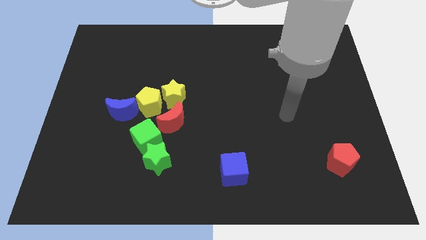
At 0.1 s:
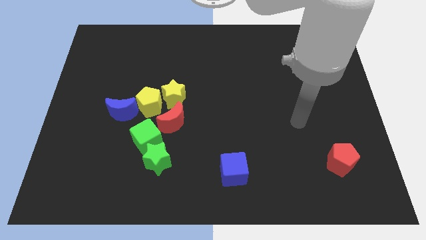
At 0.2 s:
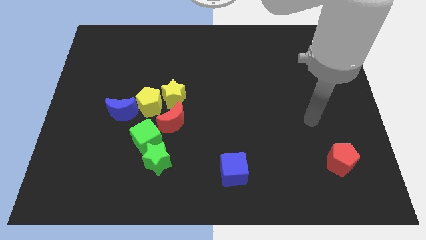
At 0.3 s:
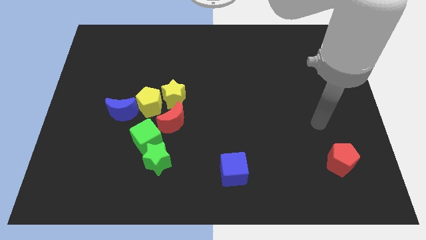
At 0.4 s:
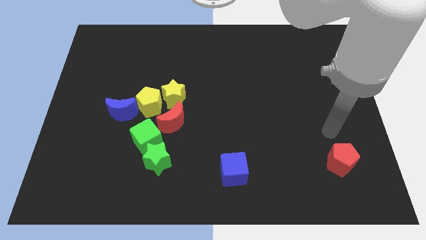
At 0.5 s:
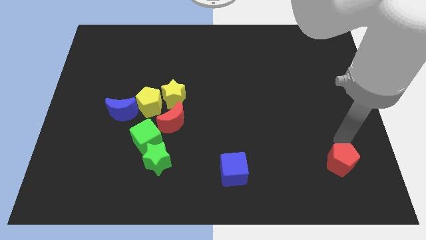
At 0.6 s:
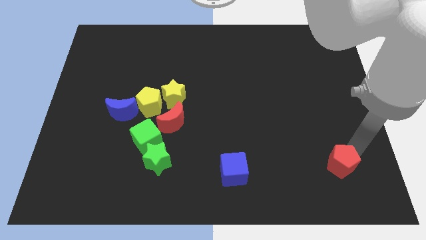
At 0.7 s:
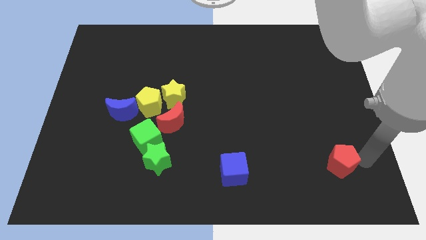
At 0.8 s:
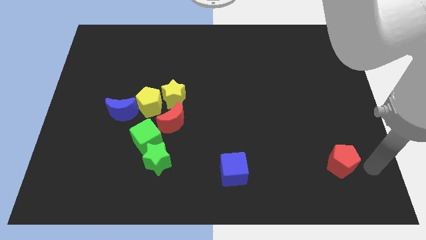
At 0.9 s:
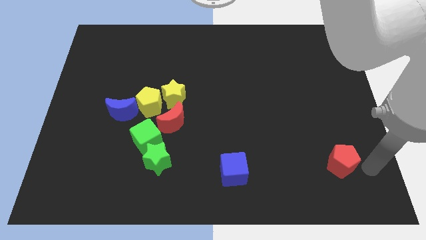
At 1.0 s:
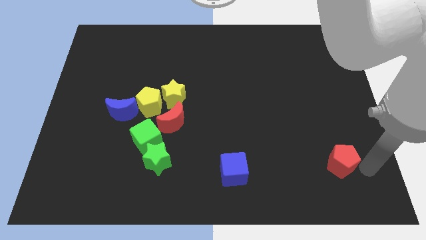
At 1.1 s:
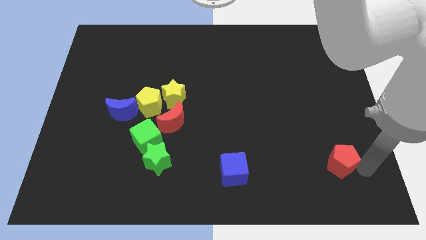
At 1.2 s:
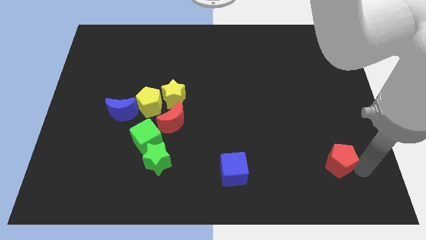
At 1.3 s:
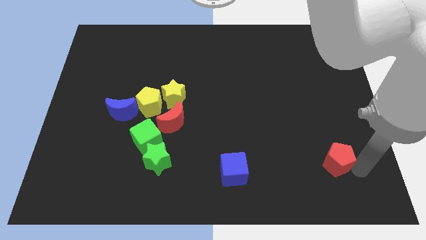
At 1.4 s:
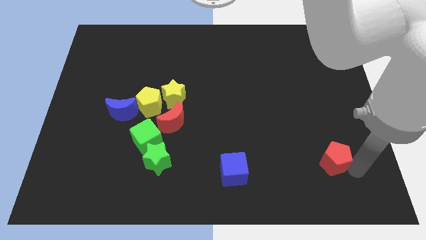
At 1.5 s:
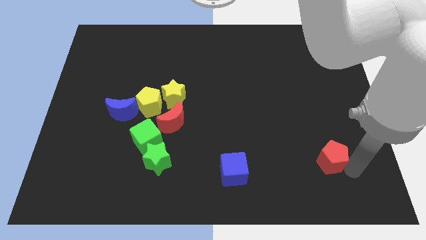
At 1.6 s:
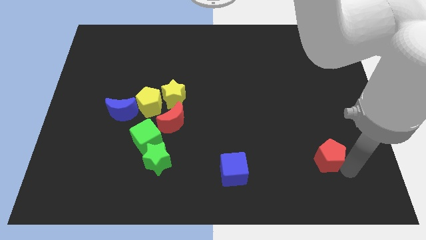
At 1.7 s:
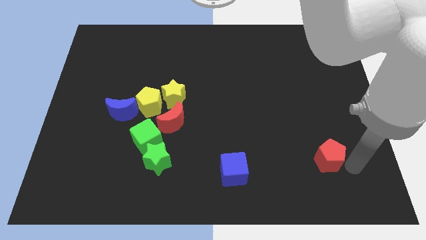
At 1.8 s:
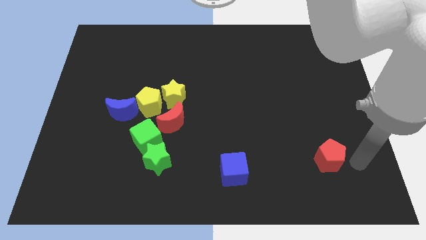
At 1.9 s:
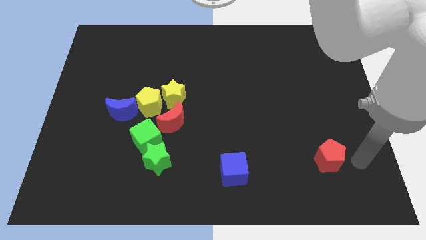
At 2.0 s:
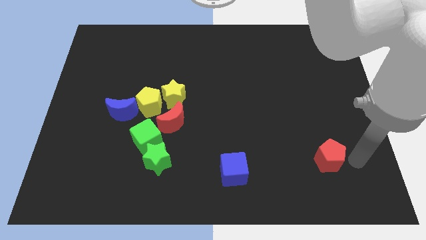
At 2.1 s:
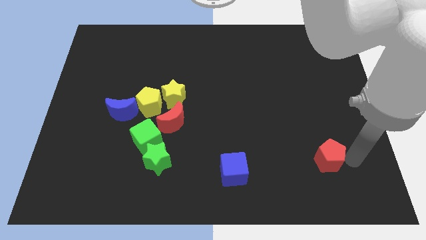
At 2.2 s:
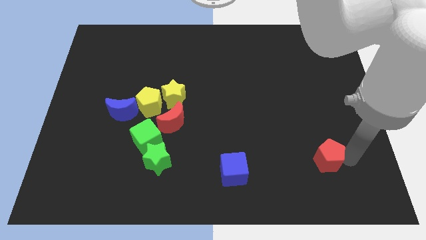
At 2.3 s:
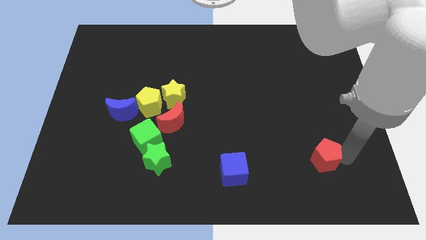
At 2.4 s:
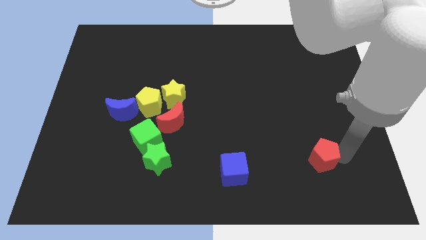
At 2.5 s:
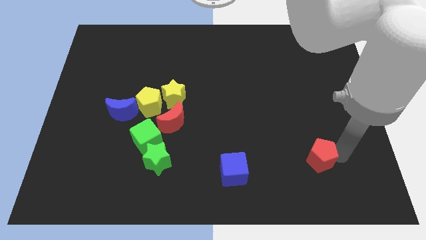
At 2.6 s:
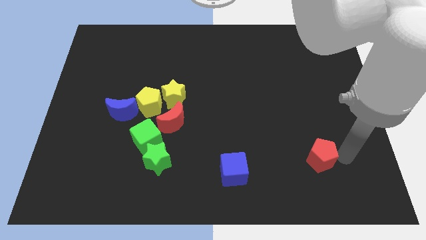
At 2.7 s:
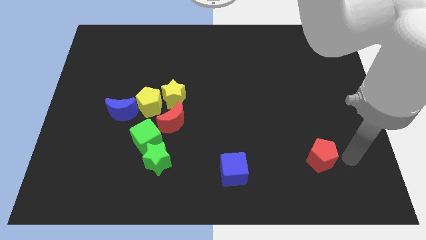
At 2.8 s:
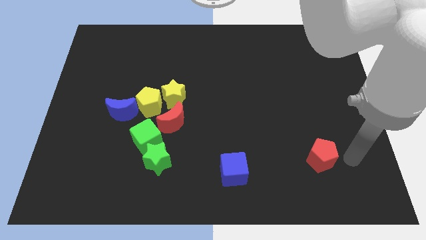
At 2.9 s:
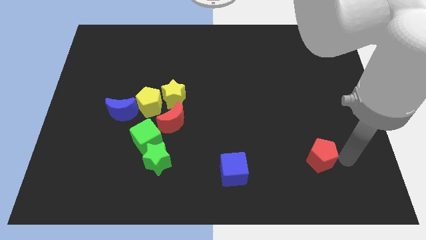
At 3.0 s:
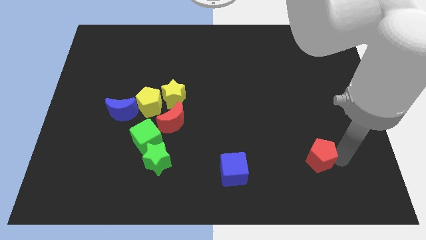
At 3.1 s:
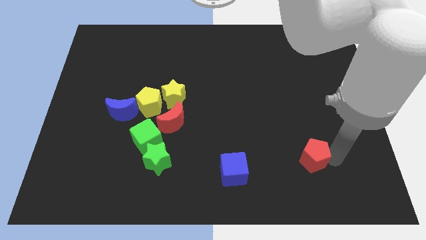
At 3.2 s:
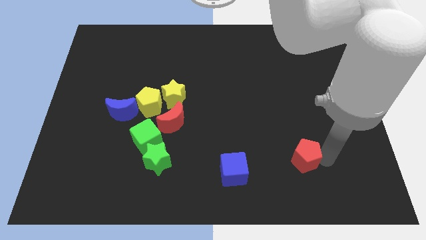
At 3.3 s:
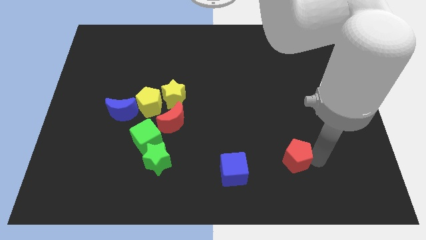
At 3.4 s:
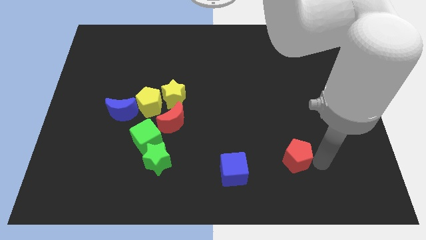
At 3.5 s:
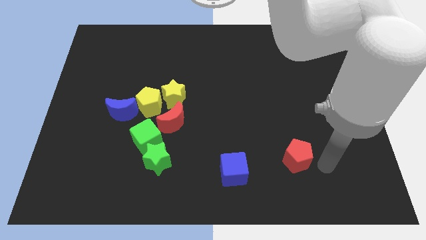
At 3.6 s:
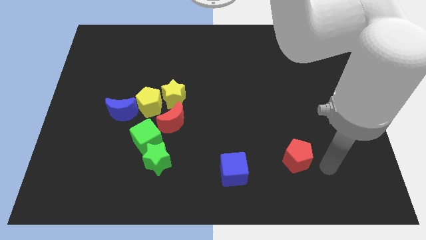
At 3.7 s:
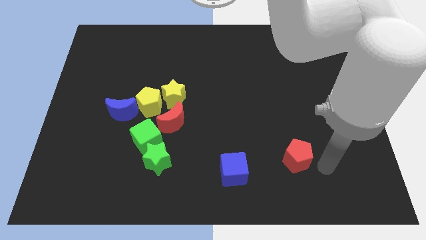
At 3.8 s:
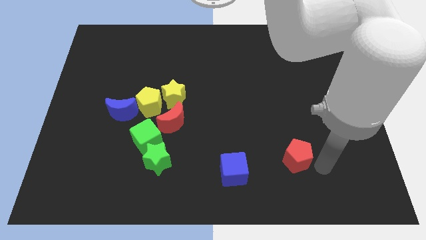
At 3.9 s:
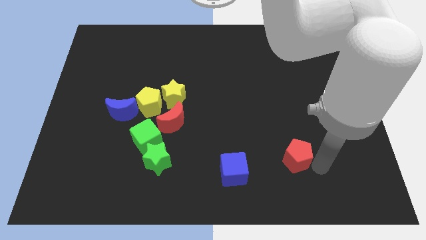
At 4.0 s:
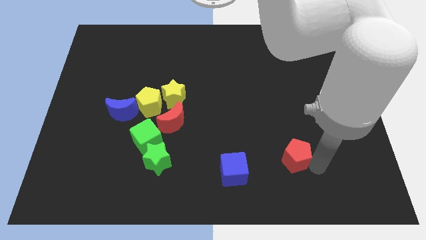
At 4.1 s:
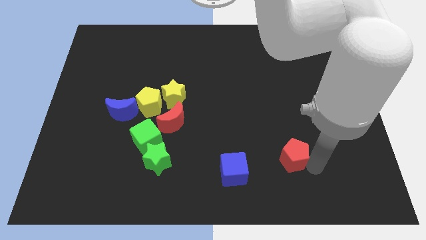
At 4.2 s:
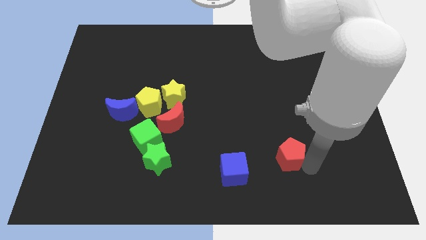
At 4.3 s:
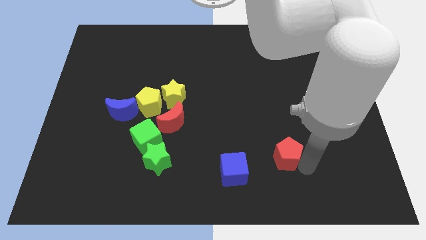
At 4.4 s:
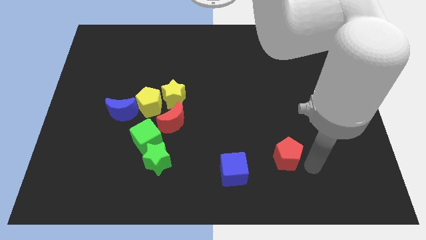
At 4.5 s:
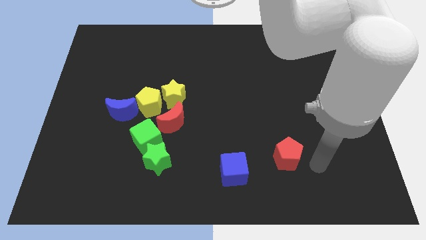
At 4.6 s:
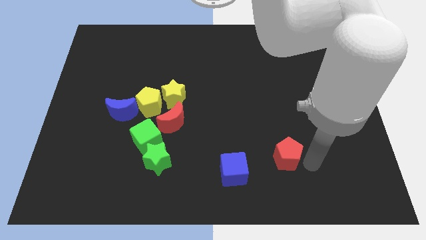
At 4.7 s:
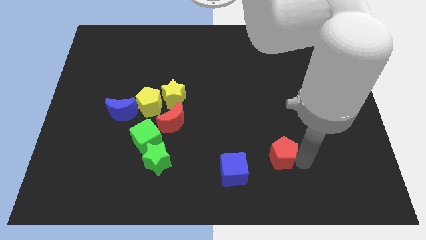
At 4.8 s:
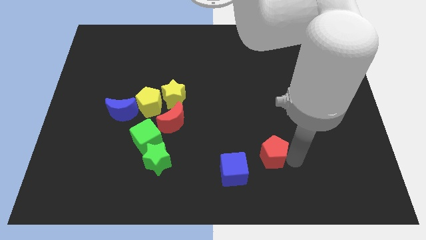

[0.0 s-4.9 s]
push the red pentagon to the top right of the blue cube

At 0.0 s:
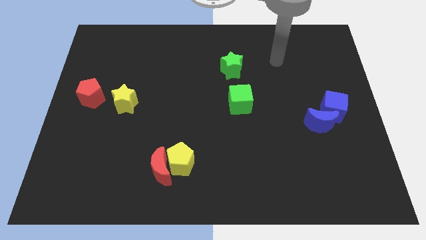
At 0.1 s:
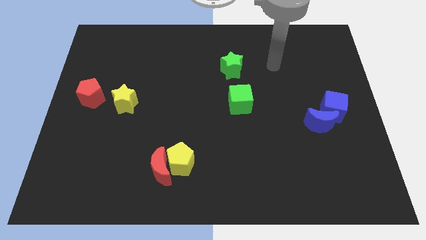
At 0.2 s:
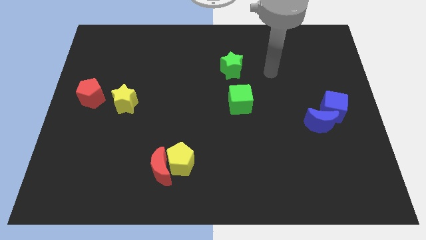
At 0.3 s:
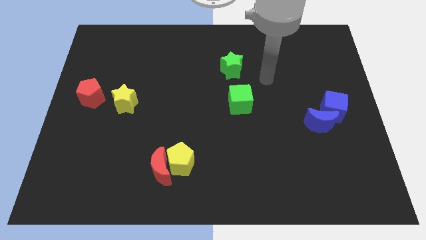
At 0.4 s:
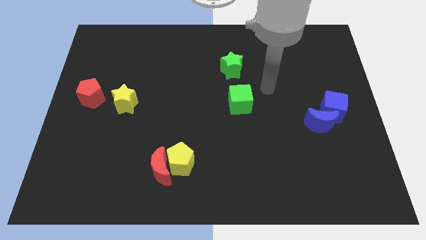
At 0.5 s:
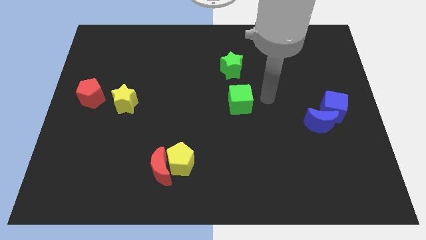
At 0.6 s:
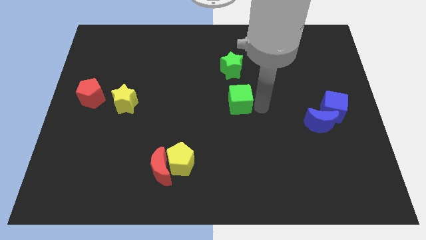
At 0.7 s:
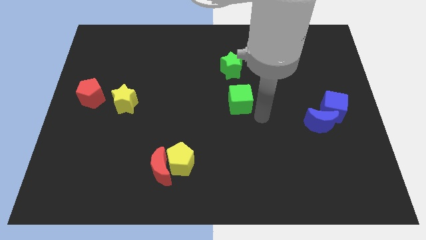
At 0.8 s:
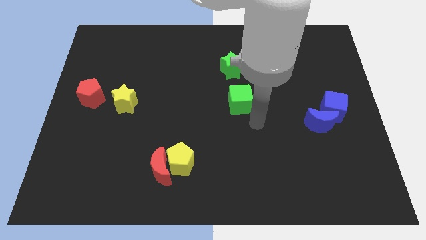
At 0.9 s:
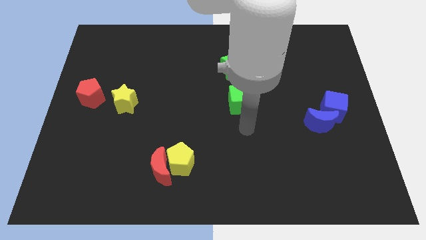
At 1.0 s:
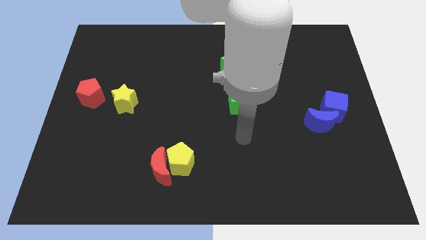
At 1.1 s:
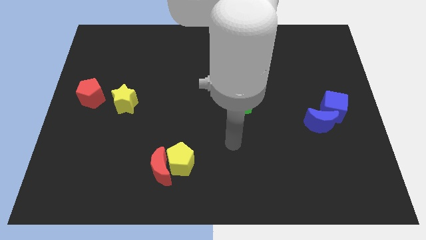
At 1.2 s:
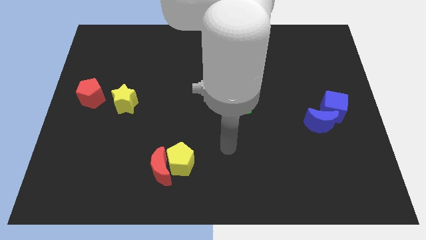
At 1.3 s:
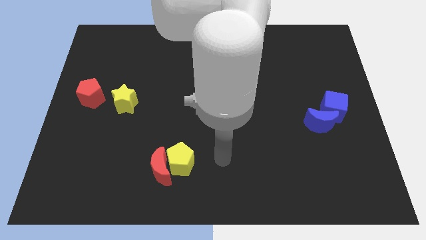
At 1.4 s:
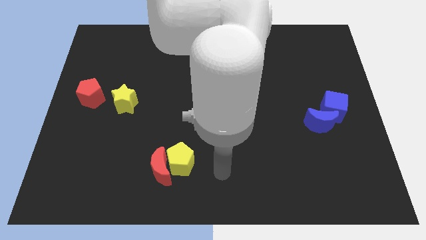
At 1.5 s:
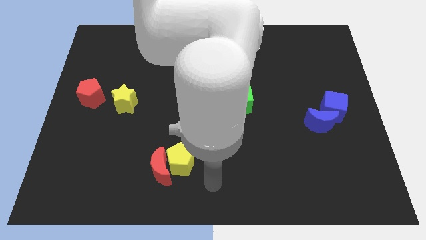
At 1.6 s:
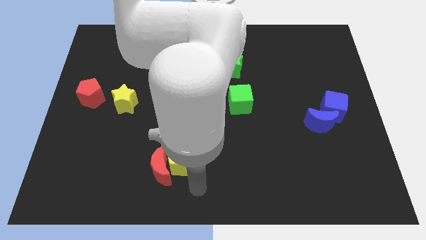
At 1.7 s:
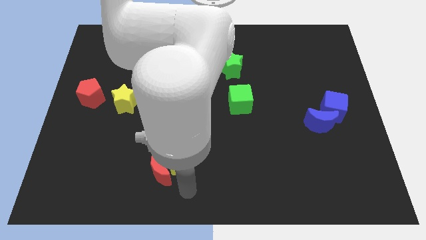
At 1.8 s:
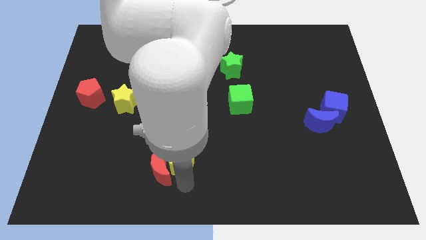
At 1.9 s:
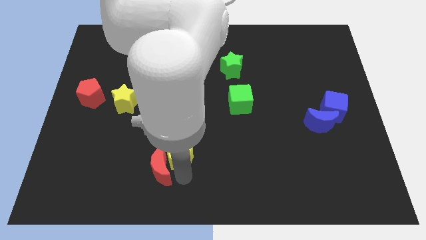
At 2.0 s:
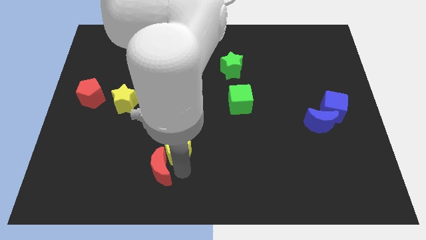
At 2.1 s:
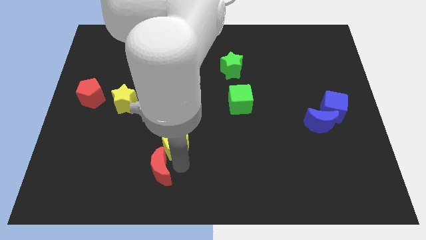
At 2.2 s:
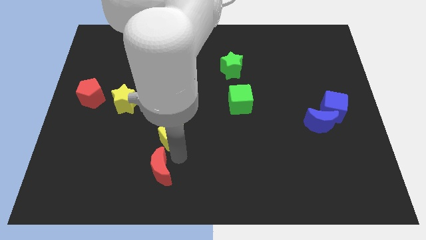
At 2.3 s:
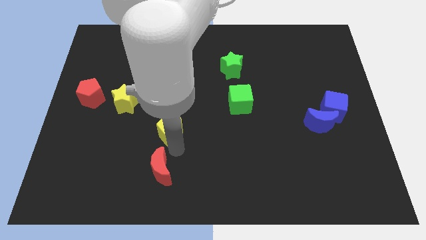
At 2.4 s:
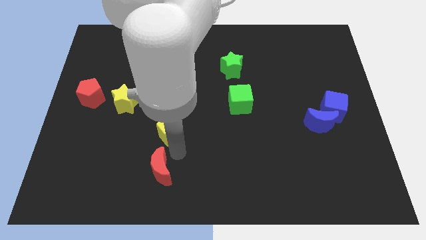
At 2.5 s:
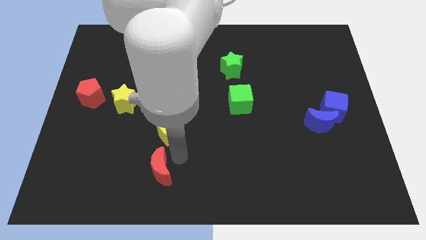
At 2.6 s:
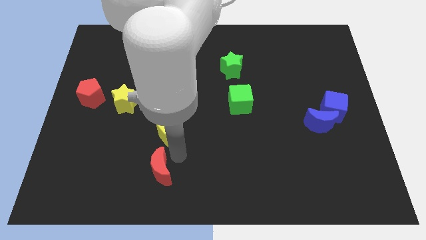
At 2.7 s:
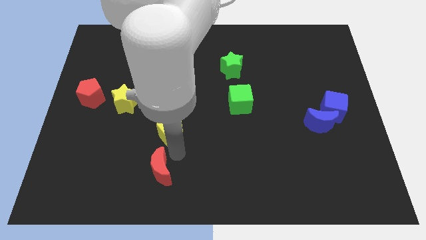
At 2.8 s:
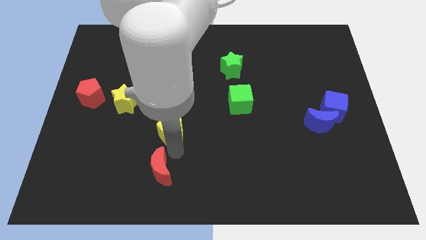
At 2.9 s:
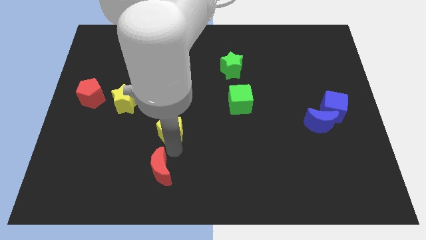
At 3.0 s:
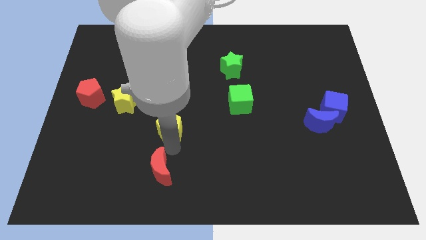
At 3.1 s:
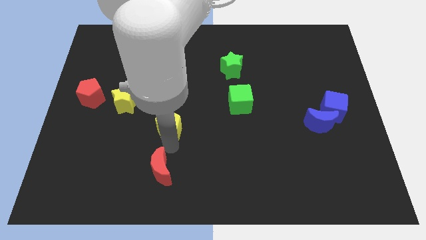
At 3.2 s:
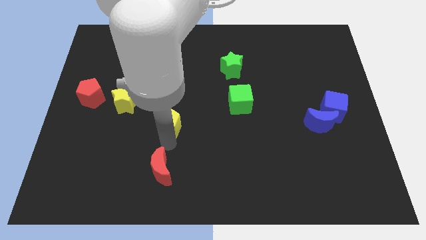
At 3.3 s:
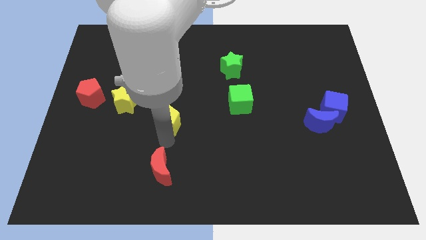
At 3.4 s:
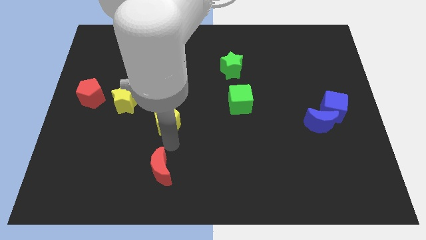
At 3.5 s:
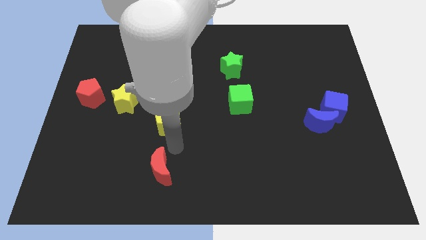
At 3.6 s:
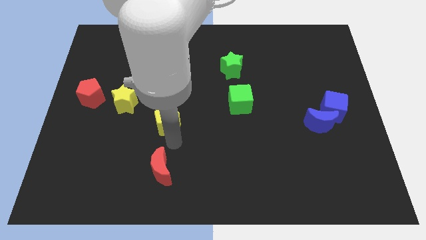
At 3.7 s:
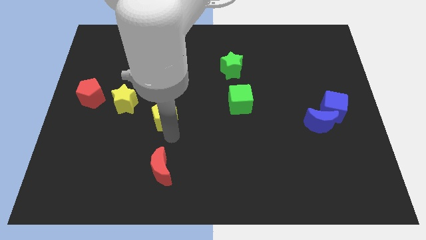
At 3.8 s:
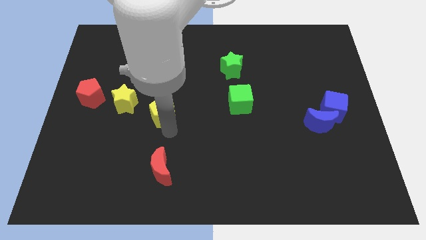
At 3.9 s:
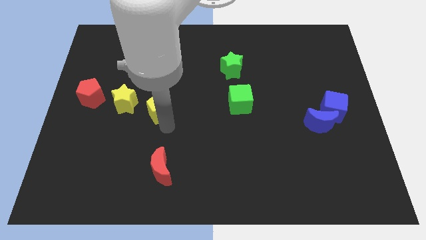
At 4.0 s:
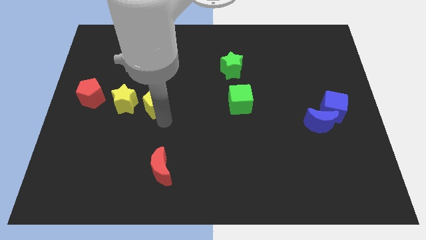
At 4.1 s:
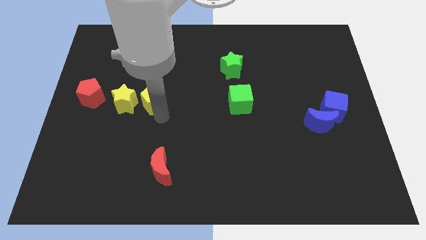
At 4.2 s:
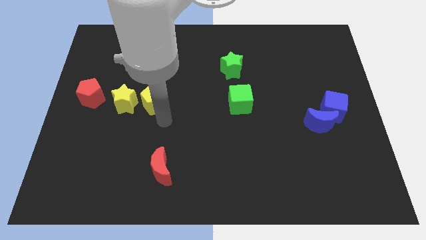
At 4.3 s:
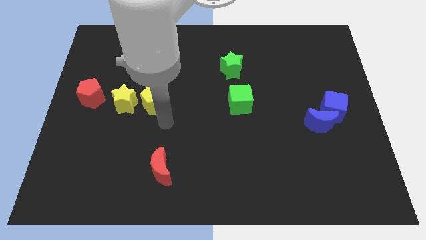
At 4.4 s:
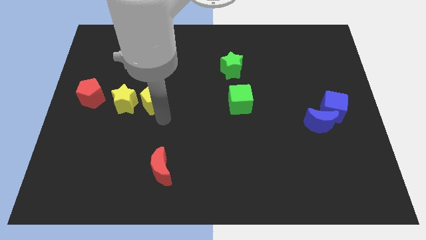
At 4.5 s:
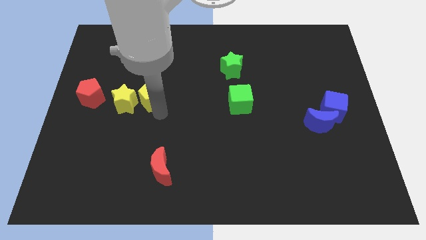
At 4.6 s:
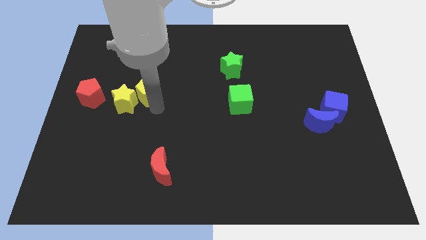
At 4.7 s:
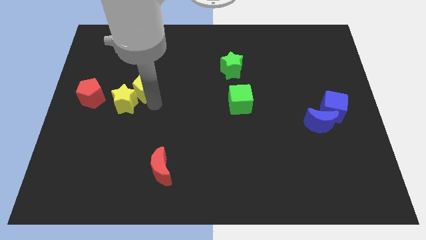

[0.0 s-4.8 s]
slide the yellow pentagon above the yellow star
